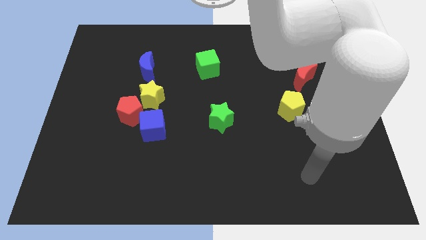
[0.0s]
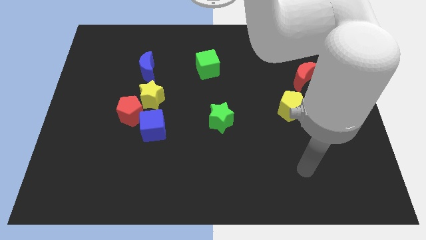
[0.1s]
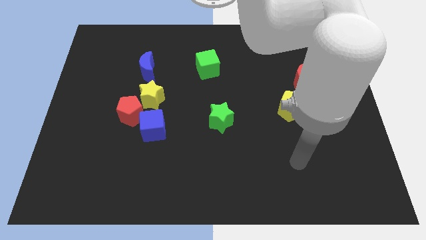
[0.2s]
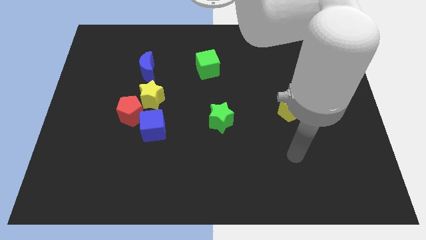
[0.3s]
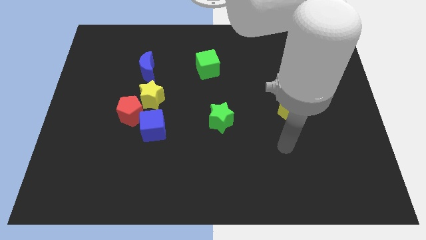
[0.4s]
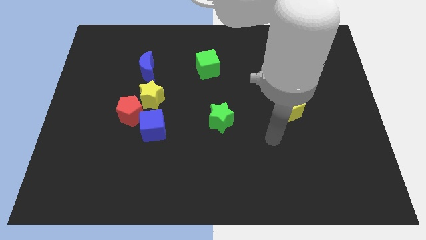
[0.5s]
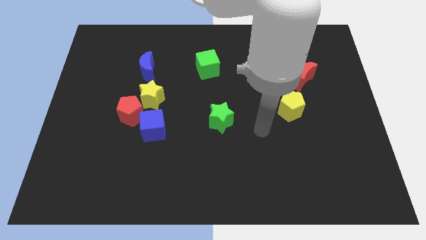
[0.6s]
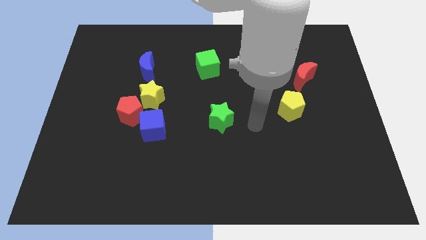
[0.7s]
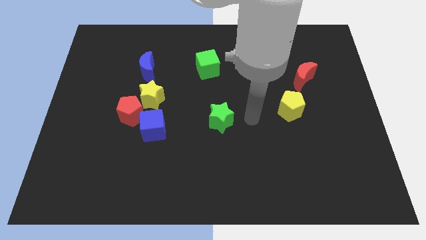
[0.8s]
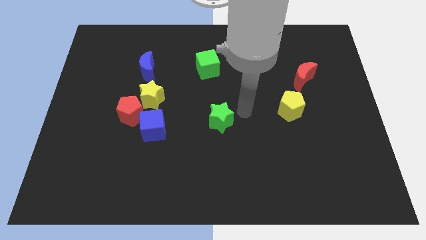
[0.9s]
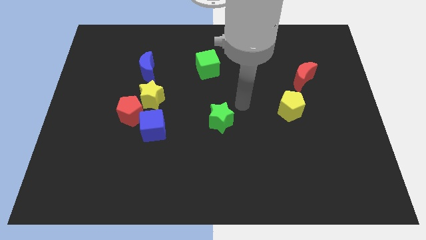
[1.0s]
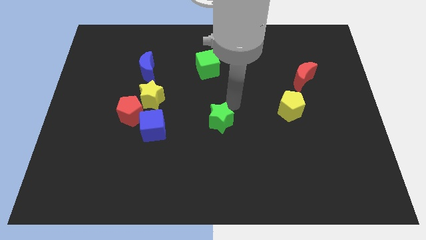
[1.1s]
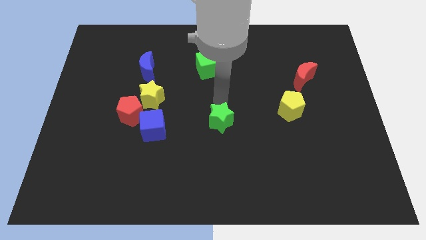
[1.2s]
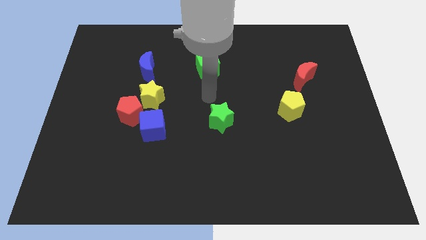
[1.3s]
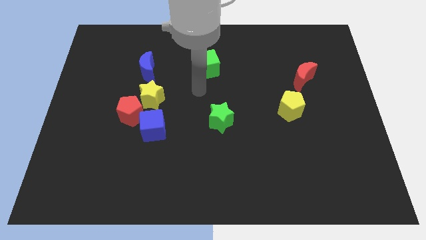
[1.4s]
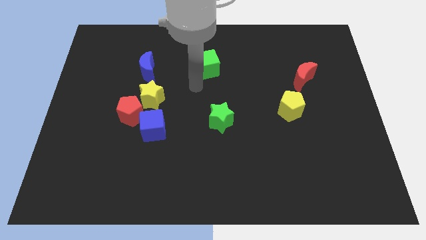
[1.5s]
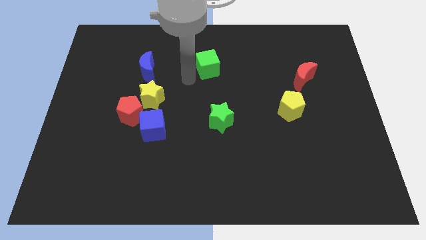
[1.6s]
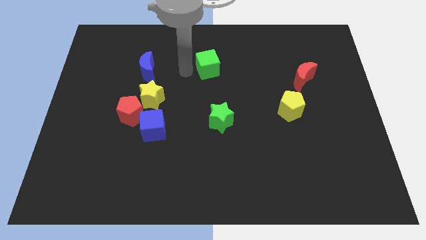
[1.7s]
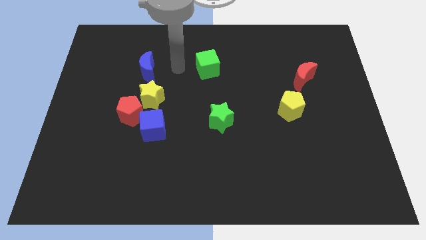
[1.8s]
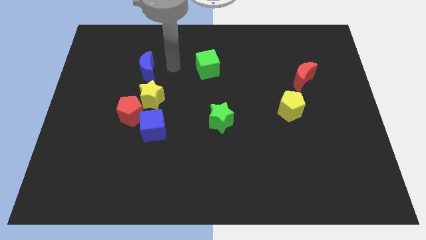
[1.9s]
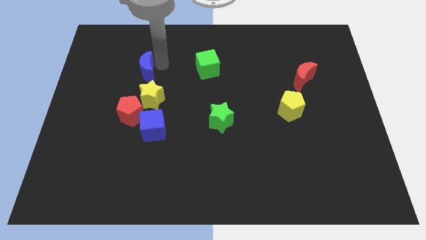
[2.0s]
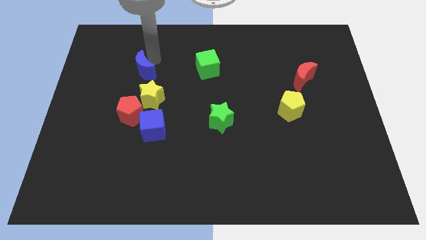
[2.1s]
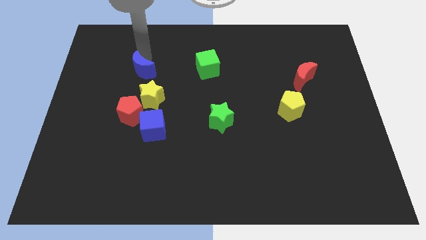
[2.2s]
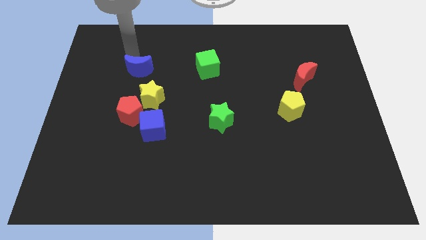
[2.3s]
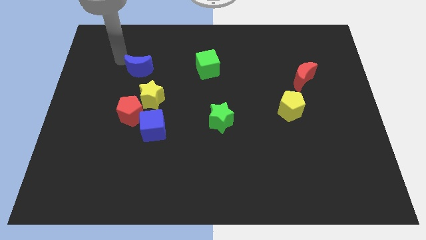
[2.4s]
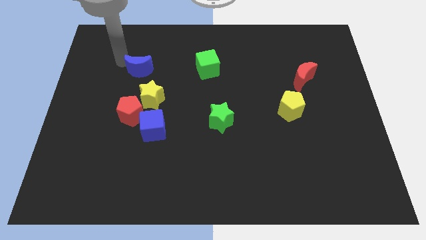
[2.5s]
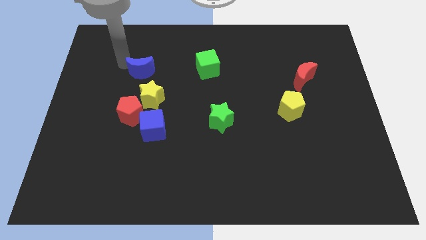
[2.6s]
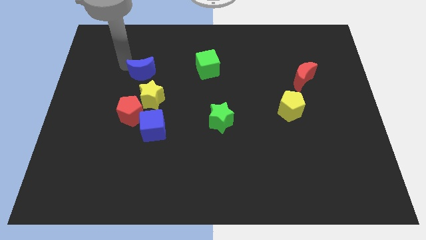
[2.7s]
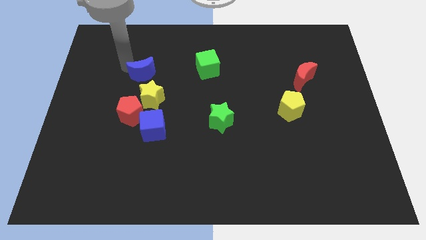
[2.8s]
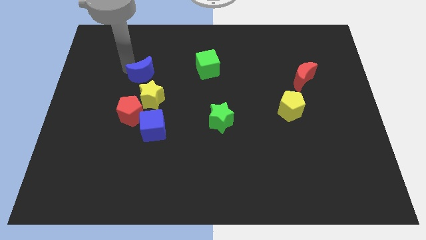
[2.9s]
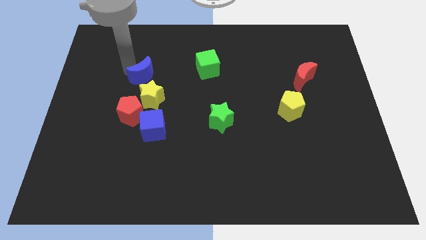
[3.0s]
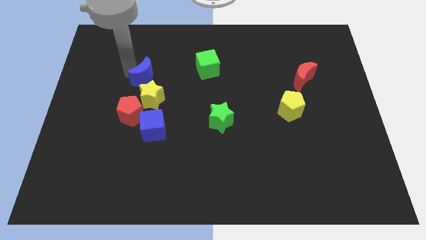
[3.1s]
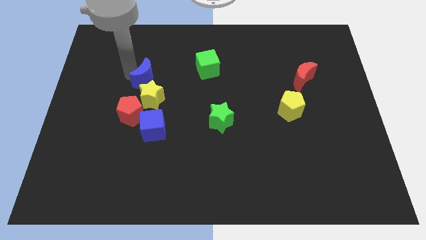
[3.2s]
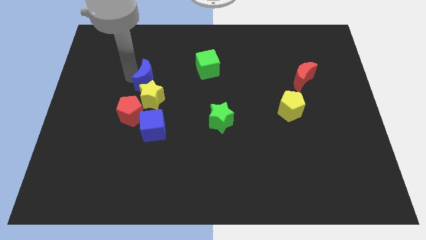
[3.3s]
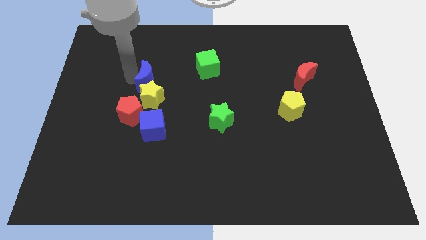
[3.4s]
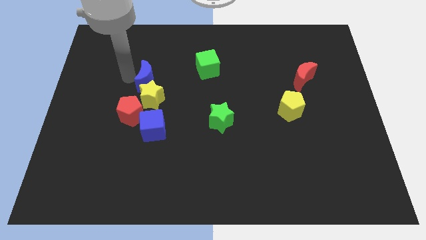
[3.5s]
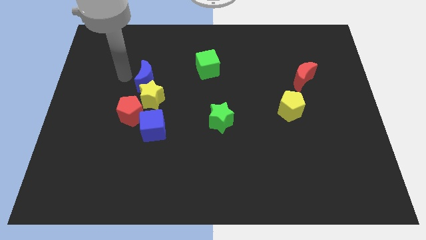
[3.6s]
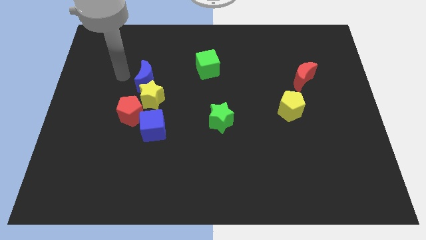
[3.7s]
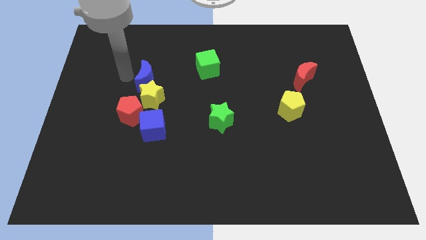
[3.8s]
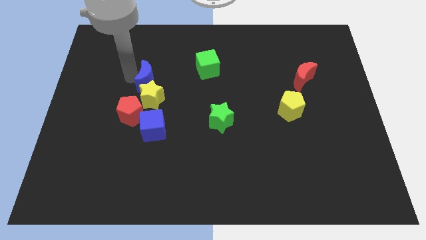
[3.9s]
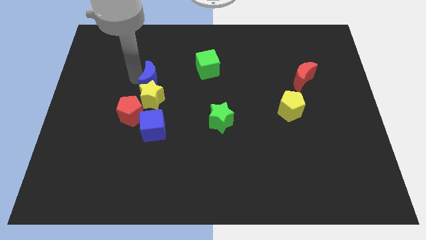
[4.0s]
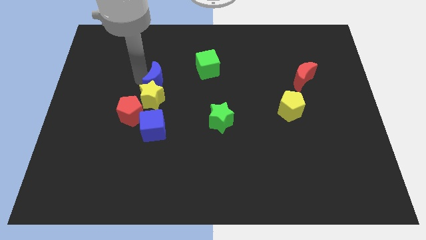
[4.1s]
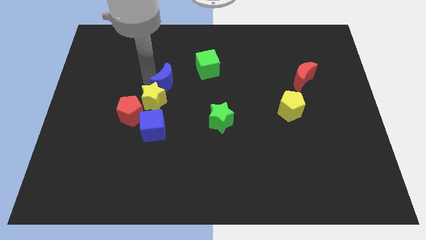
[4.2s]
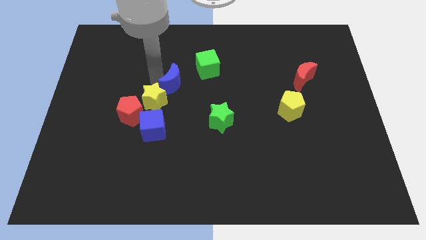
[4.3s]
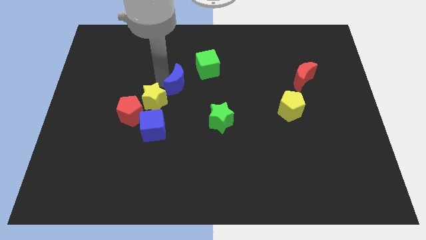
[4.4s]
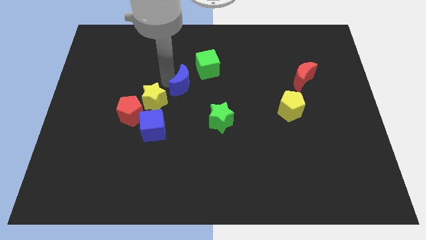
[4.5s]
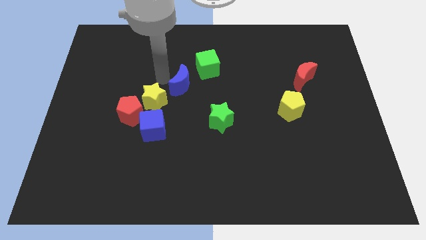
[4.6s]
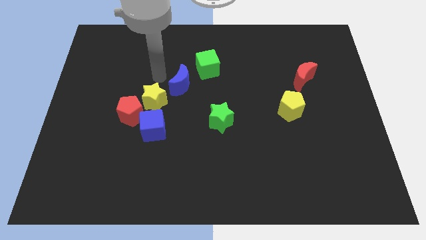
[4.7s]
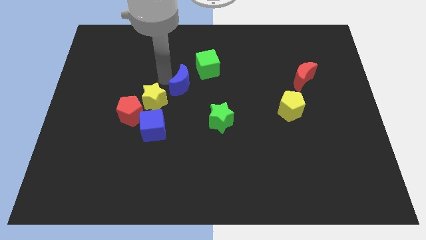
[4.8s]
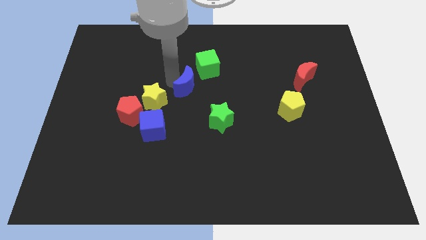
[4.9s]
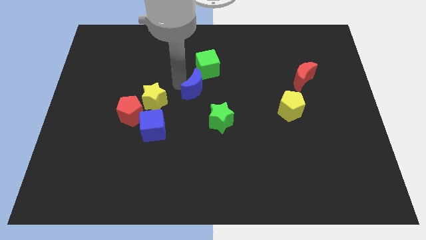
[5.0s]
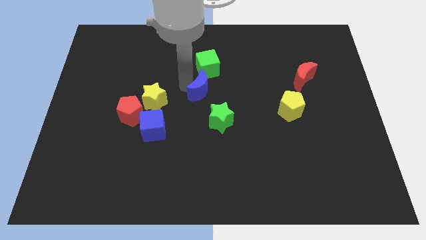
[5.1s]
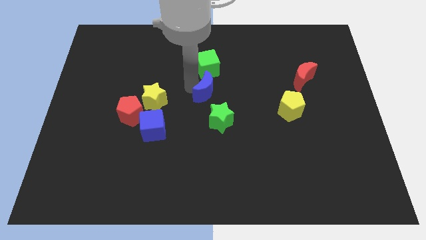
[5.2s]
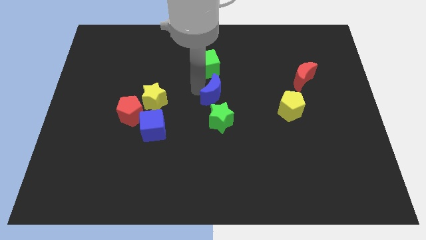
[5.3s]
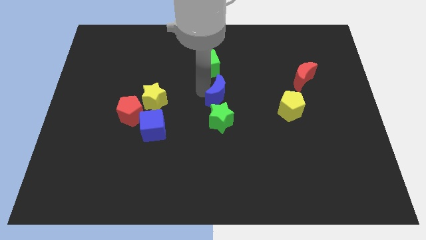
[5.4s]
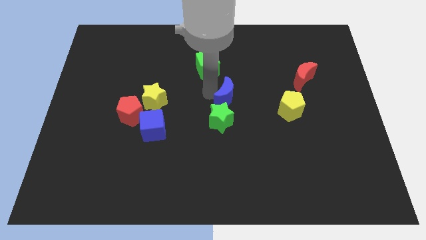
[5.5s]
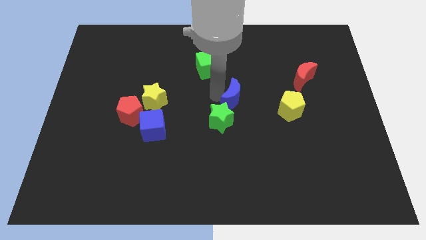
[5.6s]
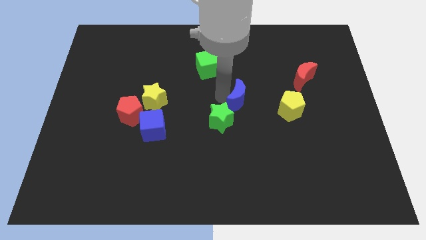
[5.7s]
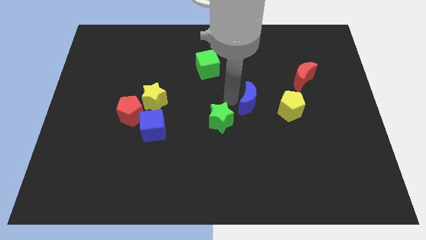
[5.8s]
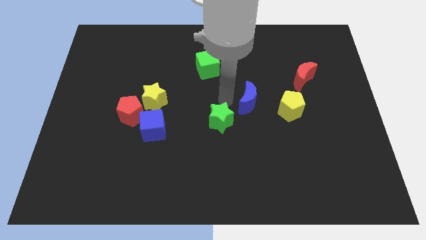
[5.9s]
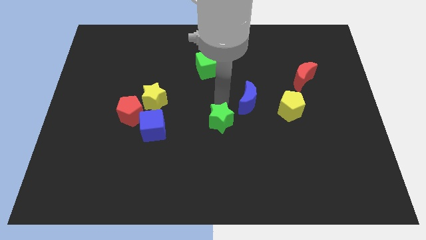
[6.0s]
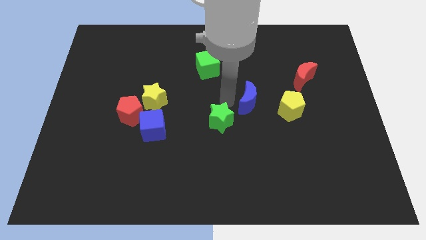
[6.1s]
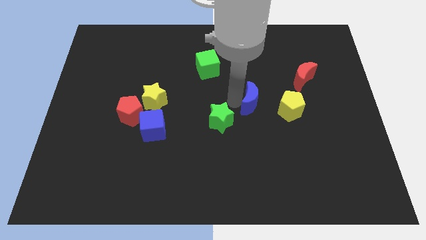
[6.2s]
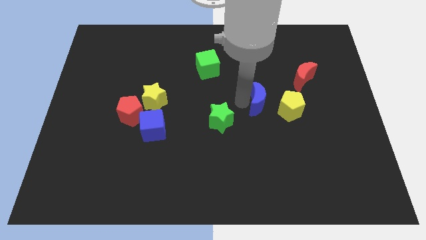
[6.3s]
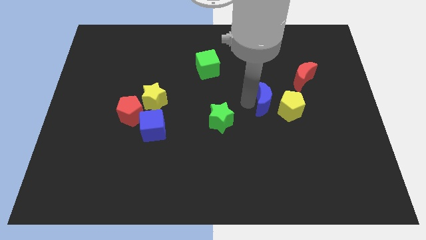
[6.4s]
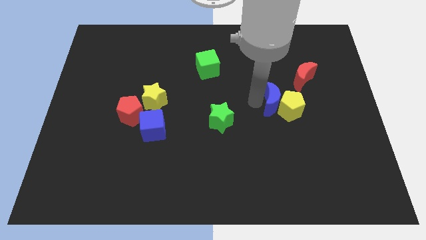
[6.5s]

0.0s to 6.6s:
push the blue moon close to the yellow pentagon

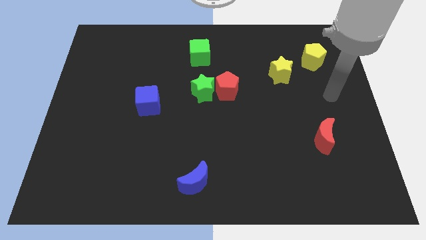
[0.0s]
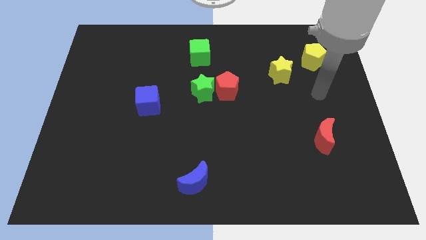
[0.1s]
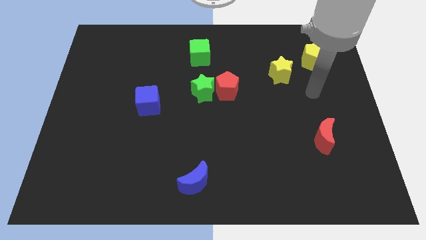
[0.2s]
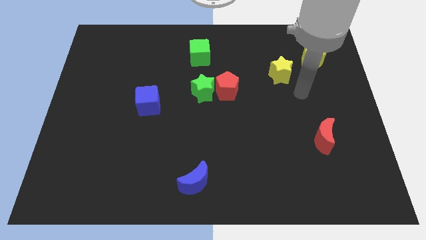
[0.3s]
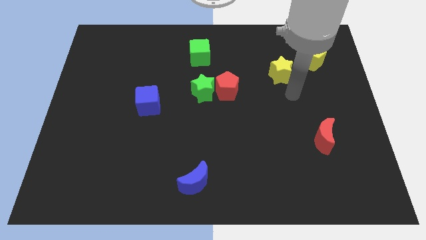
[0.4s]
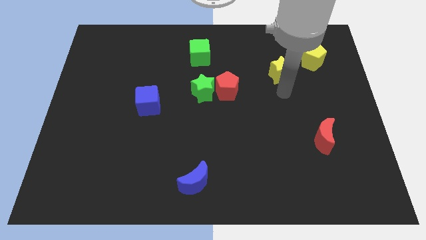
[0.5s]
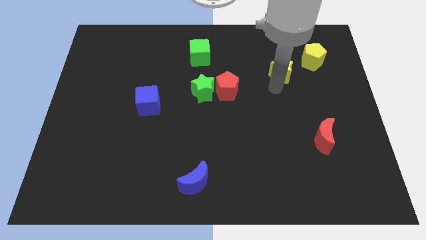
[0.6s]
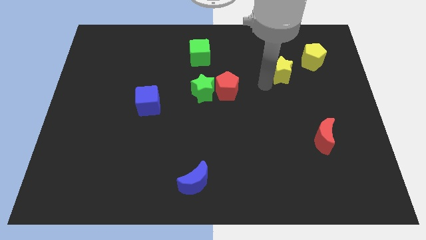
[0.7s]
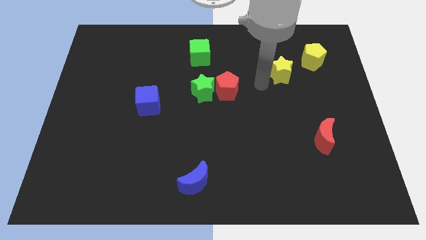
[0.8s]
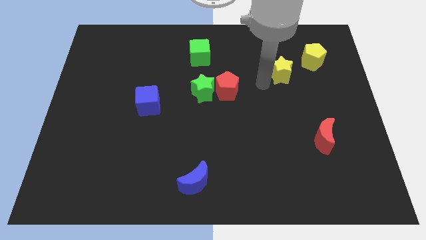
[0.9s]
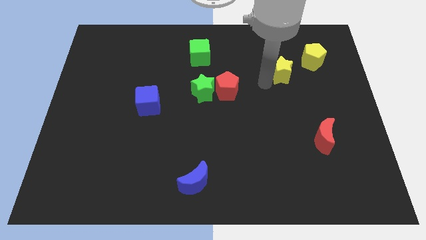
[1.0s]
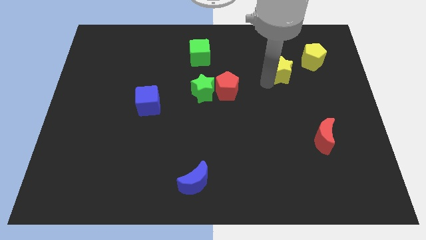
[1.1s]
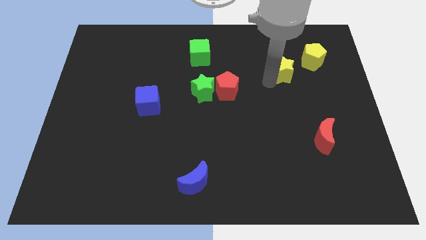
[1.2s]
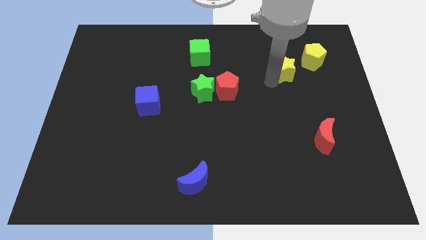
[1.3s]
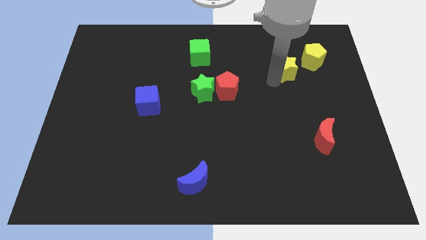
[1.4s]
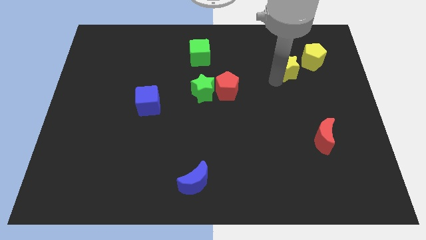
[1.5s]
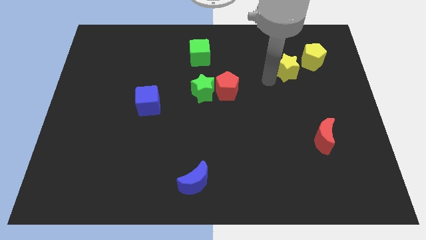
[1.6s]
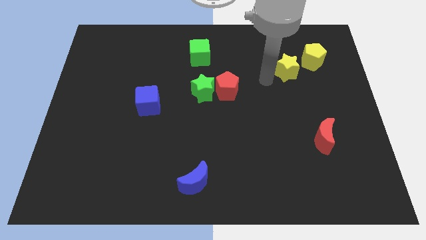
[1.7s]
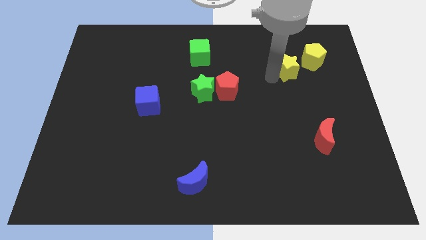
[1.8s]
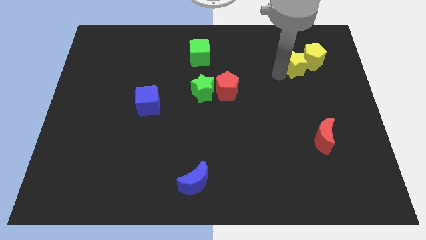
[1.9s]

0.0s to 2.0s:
push the yellow star to the yellow pentagon
